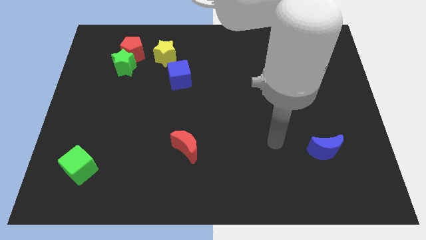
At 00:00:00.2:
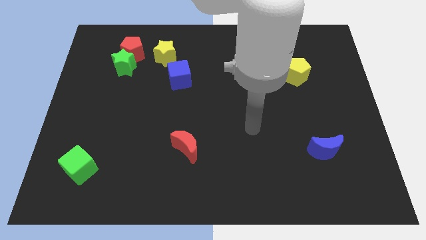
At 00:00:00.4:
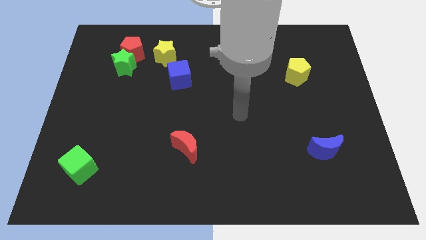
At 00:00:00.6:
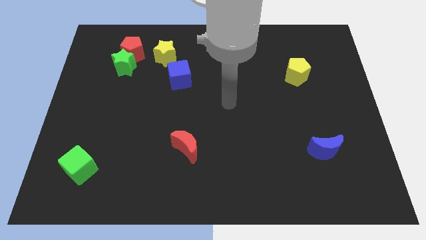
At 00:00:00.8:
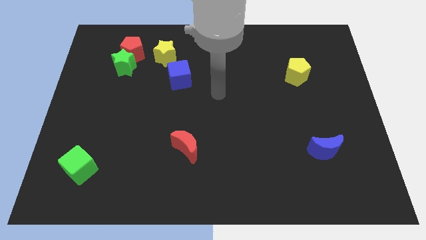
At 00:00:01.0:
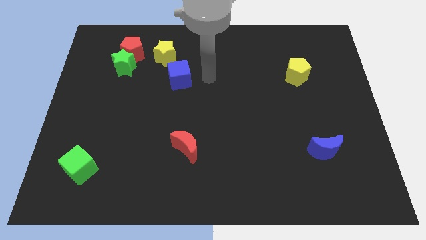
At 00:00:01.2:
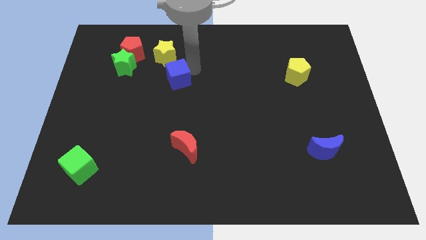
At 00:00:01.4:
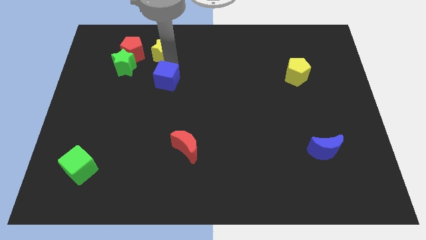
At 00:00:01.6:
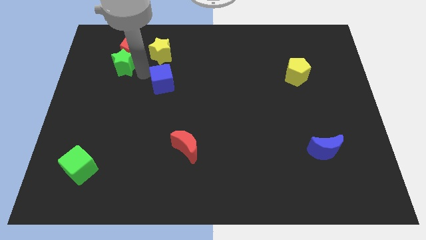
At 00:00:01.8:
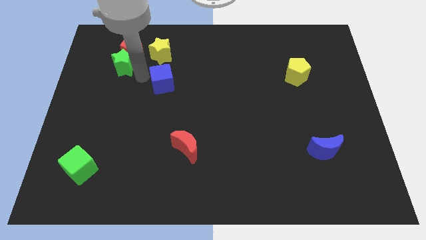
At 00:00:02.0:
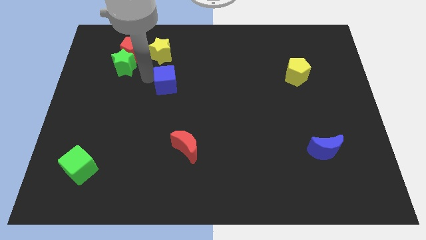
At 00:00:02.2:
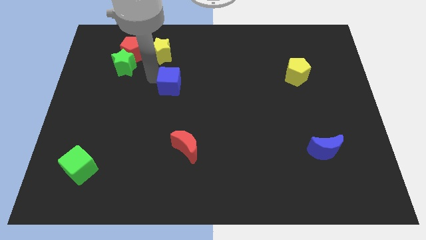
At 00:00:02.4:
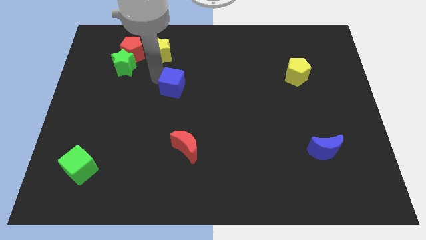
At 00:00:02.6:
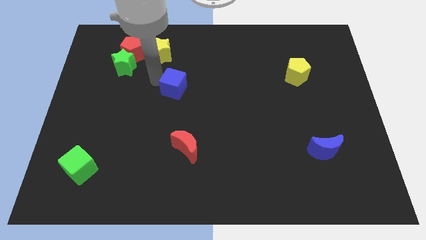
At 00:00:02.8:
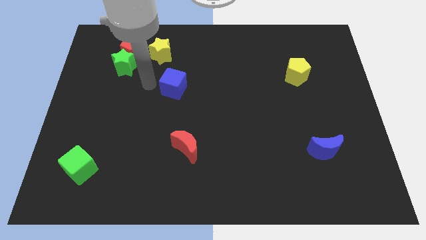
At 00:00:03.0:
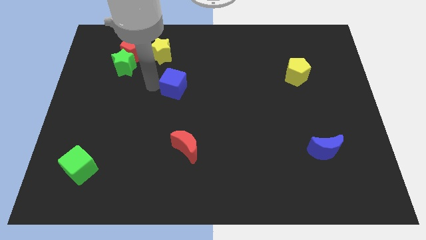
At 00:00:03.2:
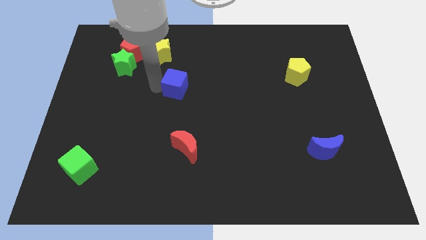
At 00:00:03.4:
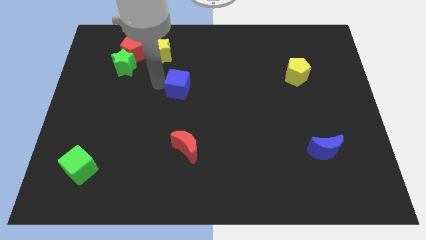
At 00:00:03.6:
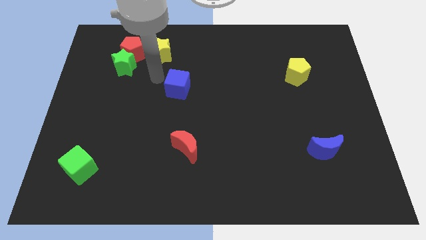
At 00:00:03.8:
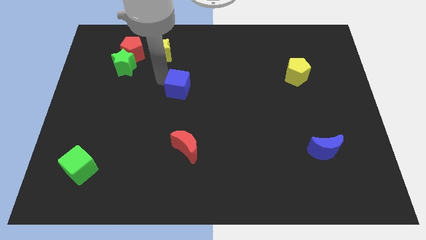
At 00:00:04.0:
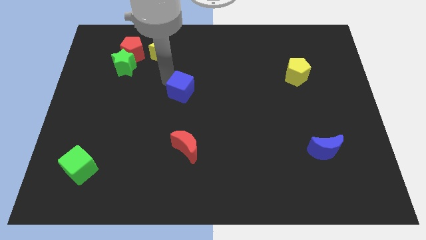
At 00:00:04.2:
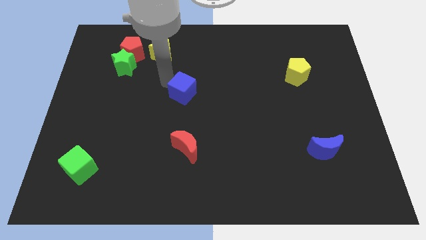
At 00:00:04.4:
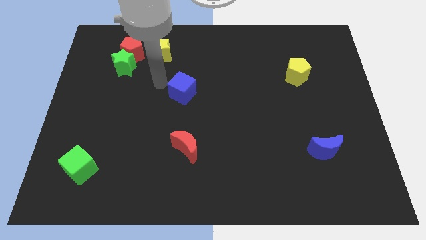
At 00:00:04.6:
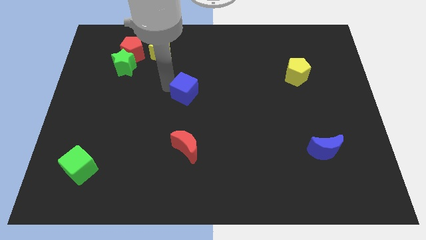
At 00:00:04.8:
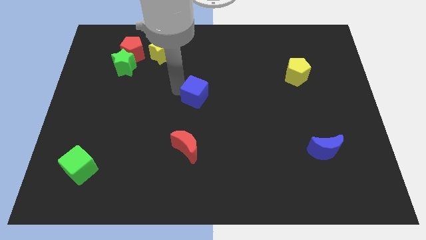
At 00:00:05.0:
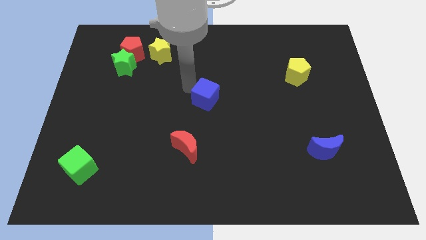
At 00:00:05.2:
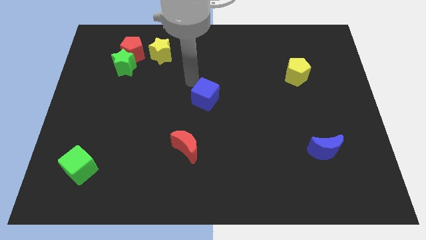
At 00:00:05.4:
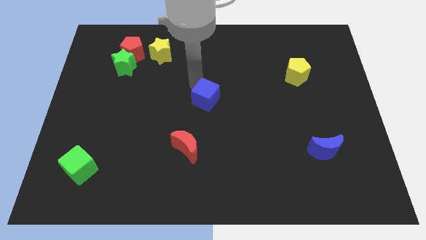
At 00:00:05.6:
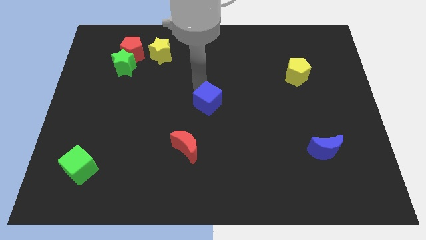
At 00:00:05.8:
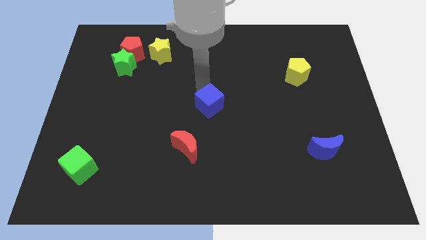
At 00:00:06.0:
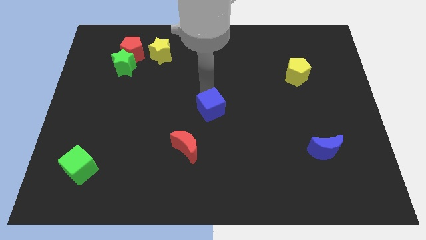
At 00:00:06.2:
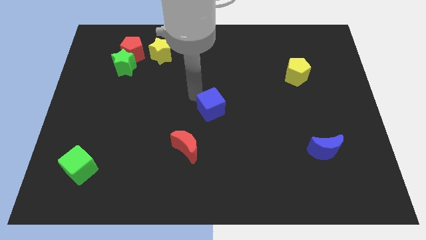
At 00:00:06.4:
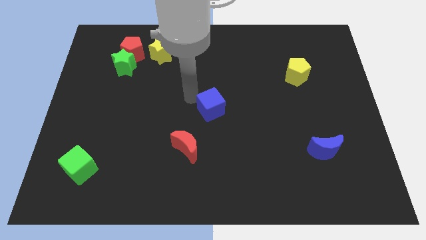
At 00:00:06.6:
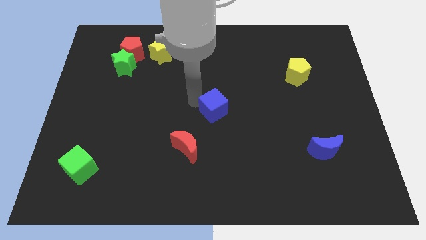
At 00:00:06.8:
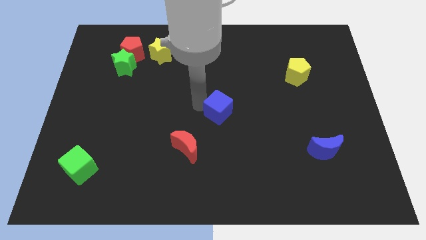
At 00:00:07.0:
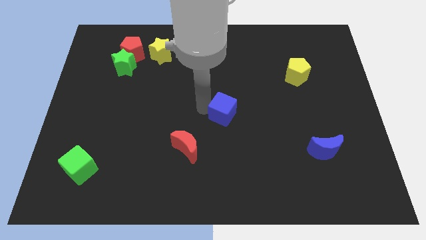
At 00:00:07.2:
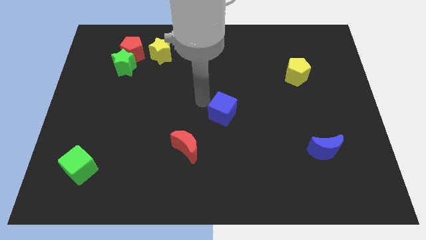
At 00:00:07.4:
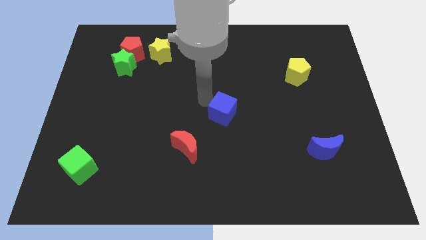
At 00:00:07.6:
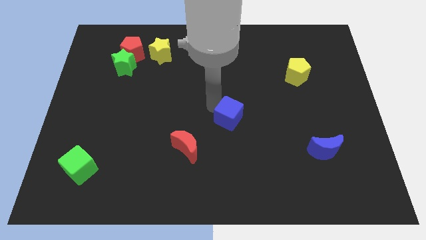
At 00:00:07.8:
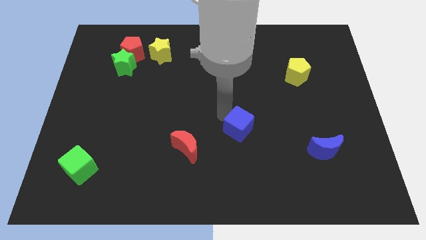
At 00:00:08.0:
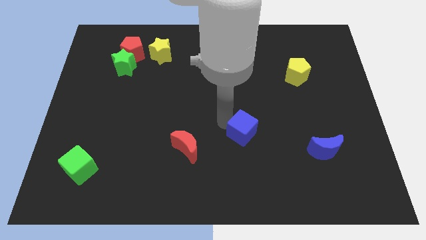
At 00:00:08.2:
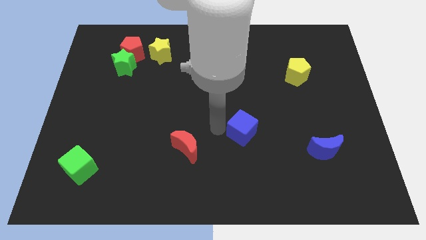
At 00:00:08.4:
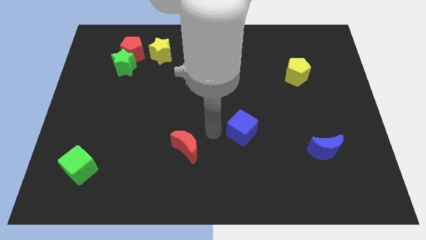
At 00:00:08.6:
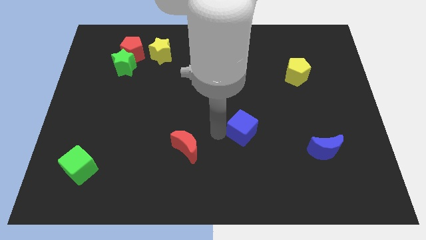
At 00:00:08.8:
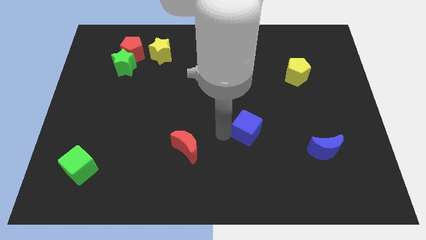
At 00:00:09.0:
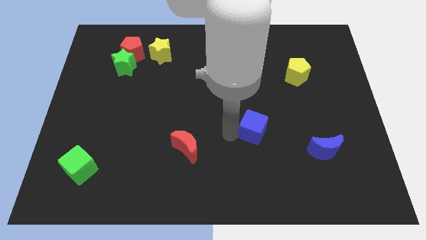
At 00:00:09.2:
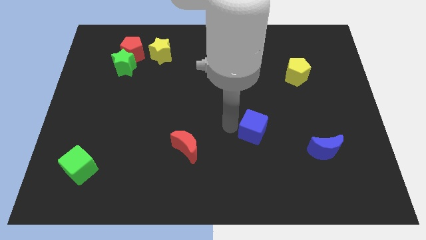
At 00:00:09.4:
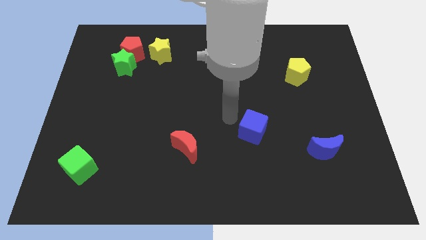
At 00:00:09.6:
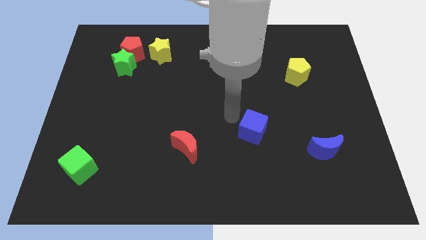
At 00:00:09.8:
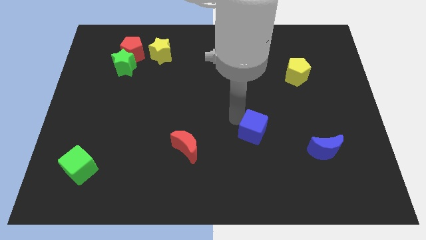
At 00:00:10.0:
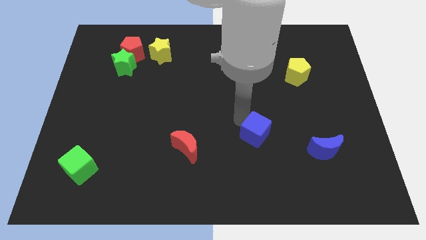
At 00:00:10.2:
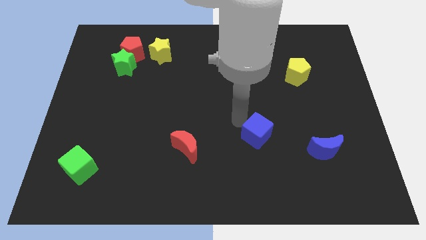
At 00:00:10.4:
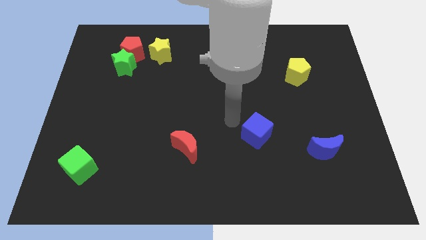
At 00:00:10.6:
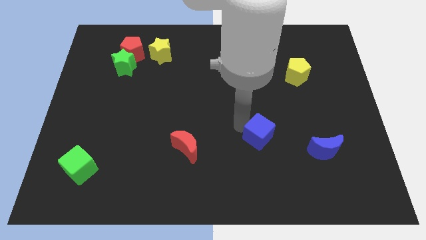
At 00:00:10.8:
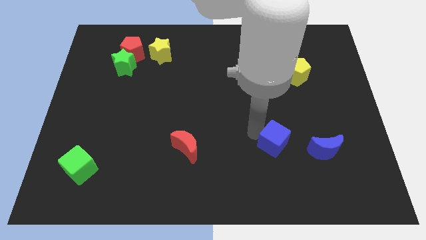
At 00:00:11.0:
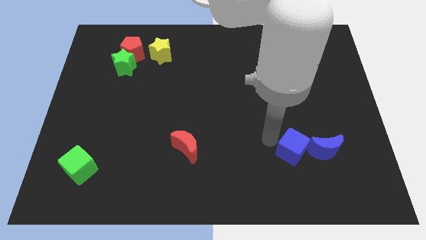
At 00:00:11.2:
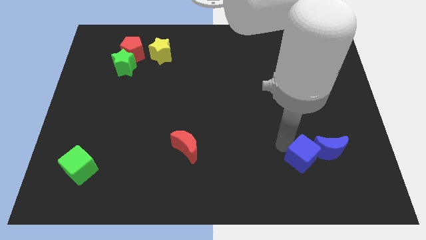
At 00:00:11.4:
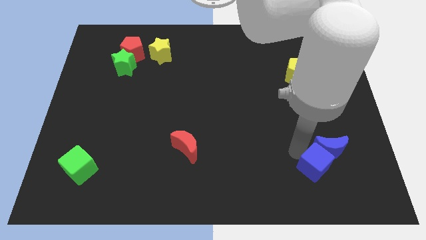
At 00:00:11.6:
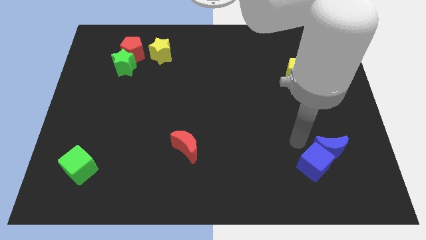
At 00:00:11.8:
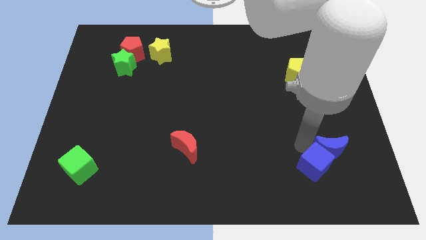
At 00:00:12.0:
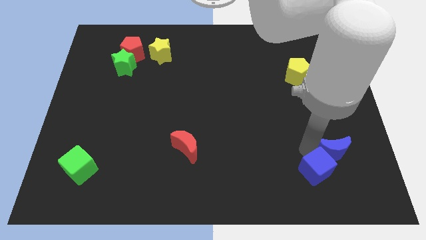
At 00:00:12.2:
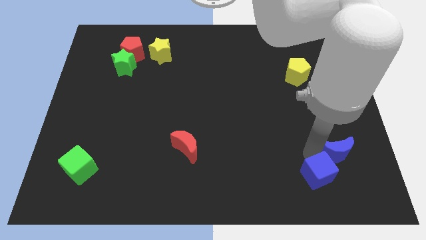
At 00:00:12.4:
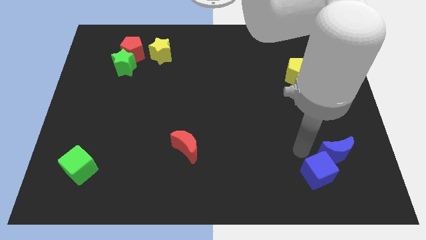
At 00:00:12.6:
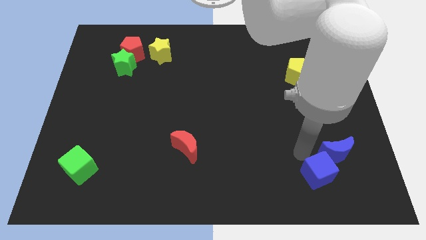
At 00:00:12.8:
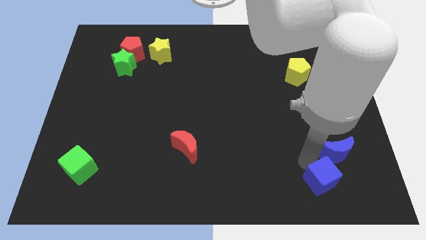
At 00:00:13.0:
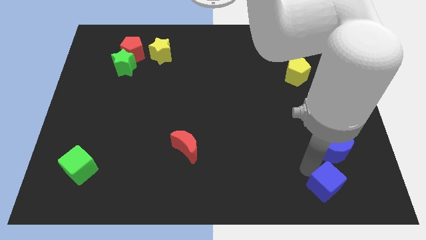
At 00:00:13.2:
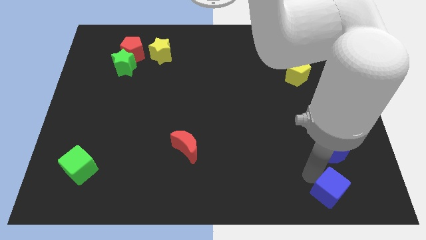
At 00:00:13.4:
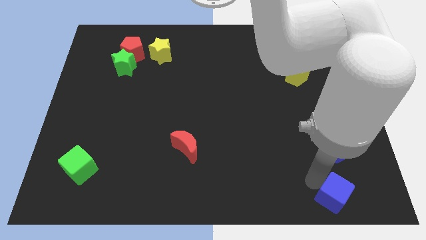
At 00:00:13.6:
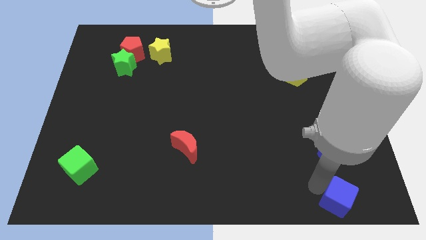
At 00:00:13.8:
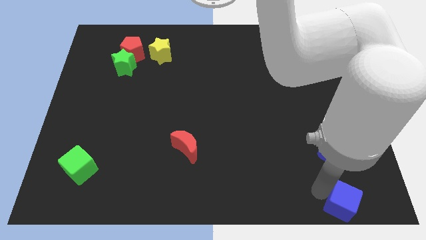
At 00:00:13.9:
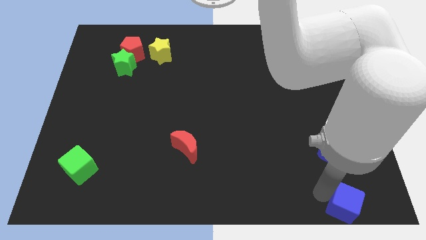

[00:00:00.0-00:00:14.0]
slide the blue cube to the bottom right of the board
